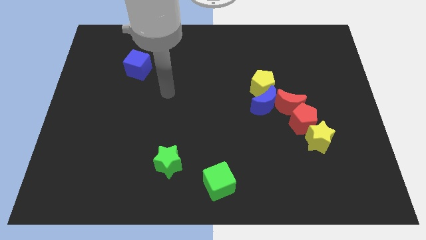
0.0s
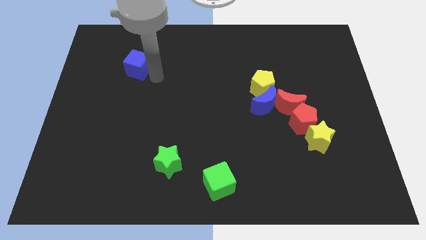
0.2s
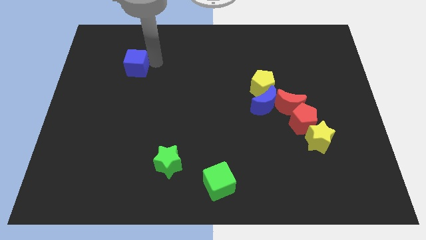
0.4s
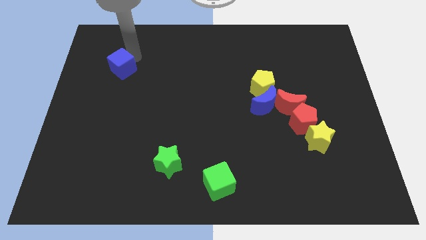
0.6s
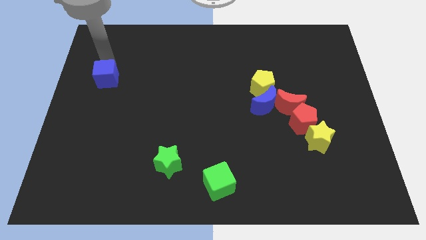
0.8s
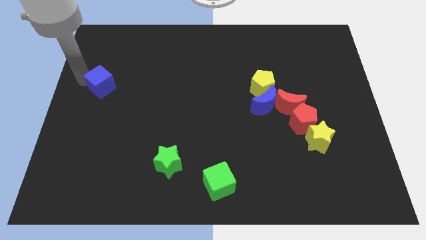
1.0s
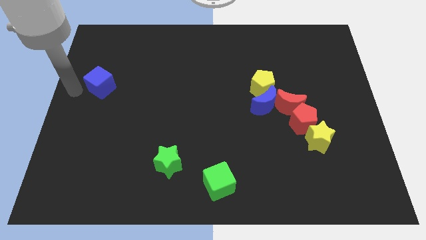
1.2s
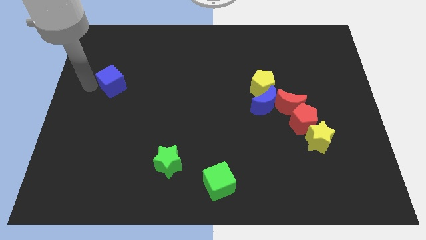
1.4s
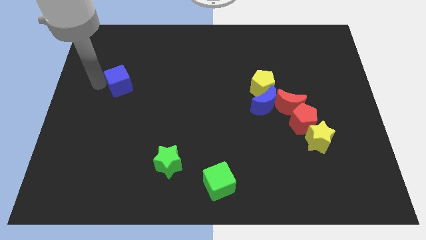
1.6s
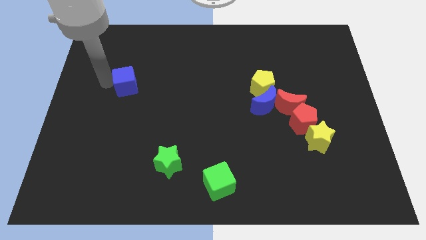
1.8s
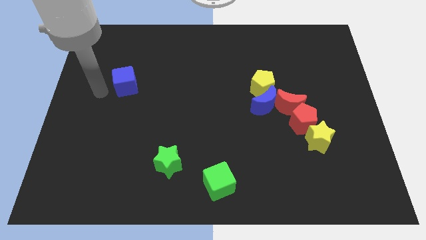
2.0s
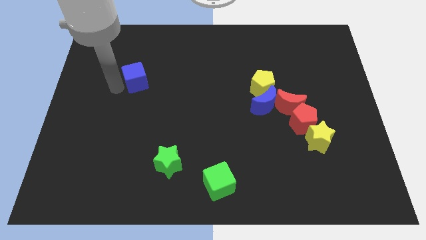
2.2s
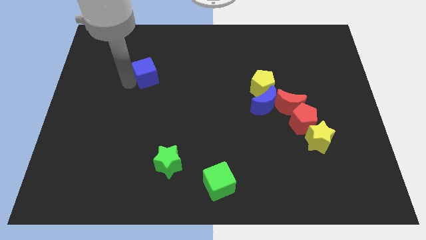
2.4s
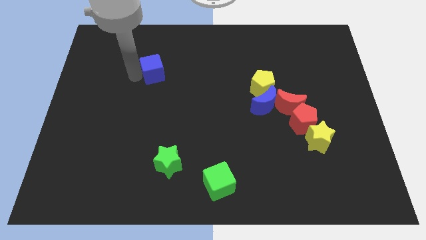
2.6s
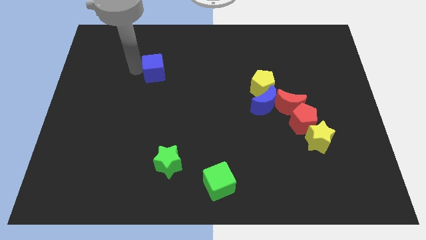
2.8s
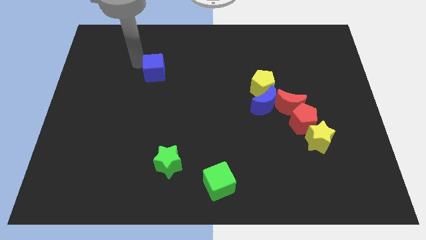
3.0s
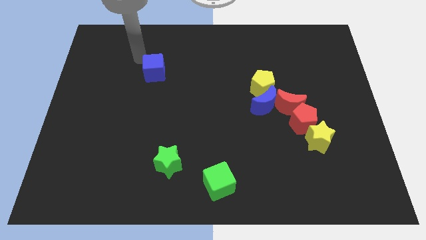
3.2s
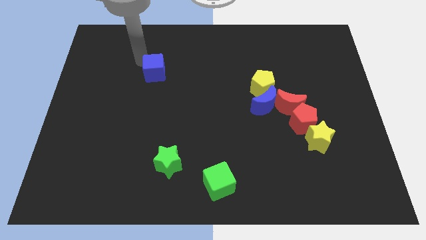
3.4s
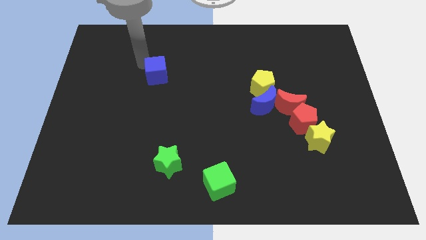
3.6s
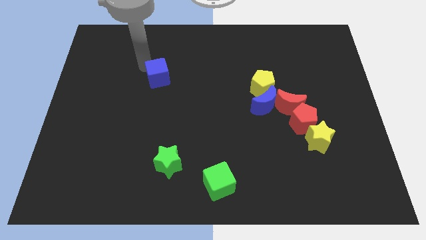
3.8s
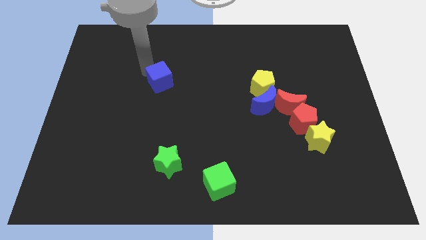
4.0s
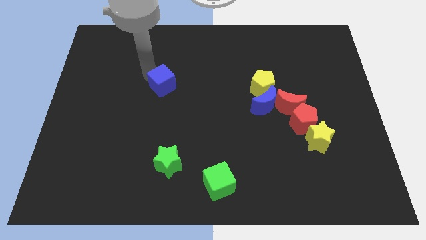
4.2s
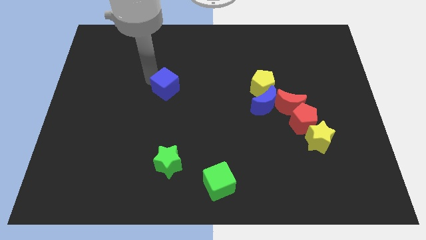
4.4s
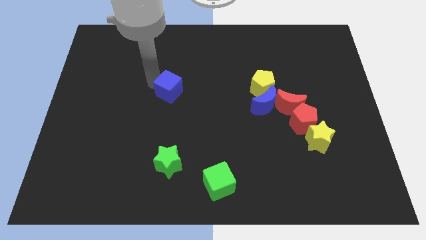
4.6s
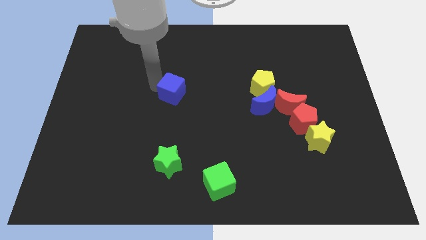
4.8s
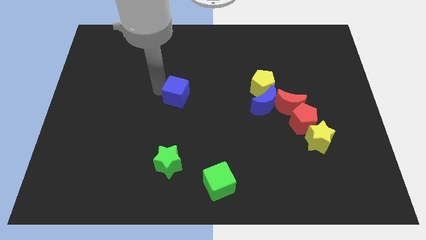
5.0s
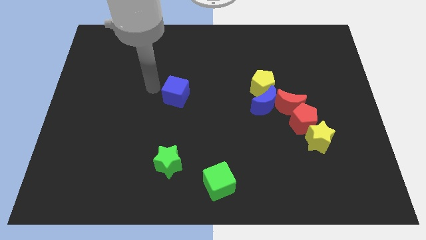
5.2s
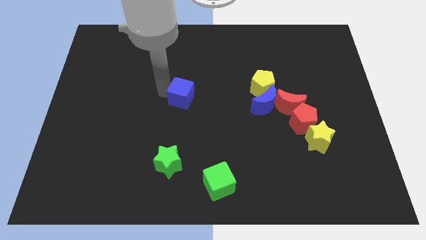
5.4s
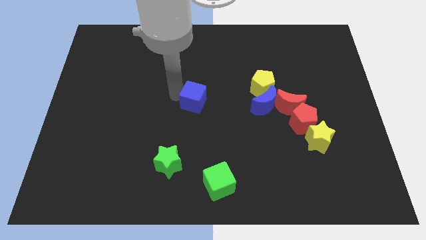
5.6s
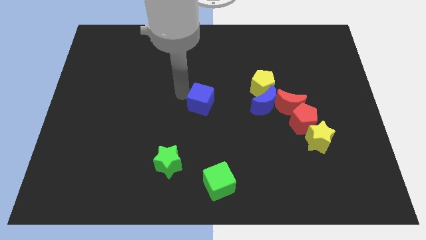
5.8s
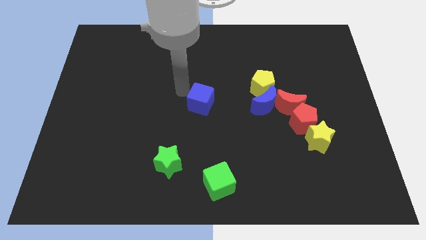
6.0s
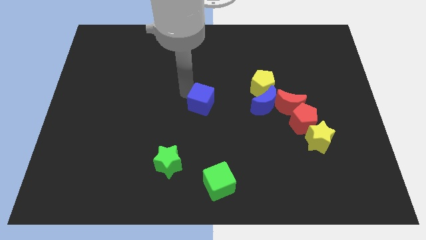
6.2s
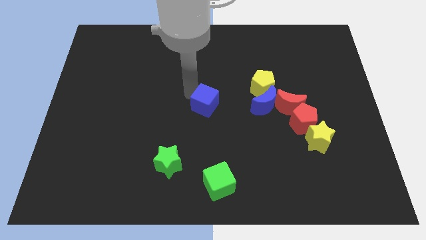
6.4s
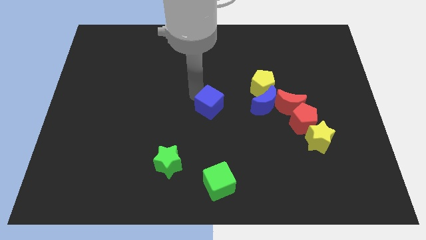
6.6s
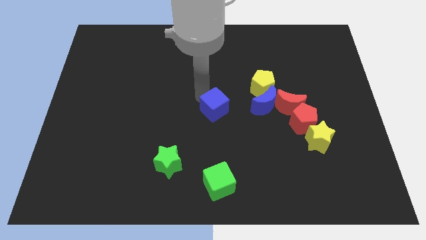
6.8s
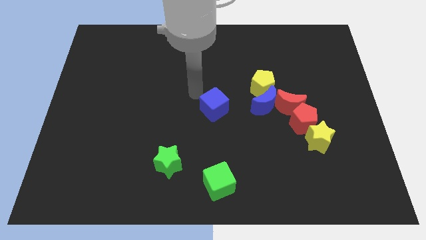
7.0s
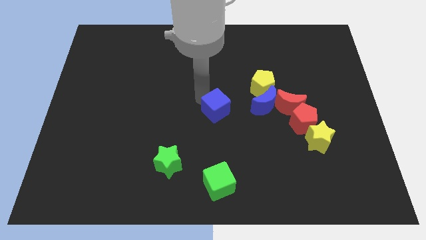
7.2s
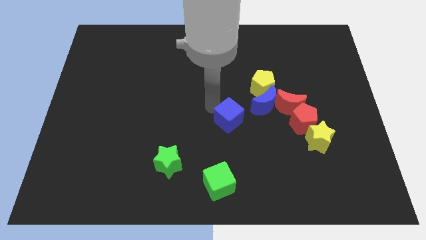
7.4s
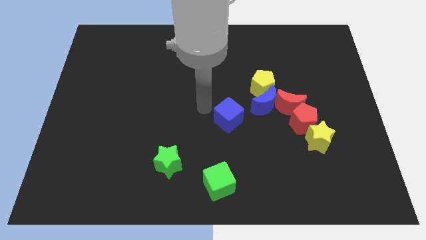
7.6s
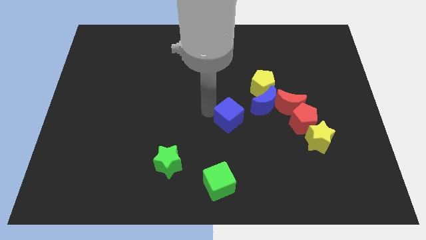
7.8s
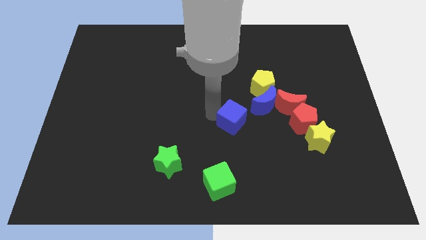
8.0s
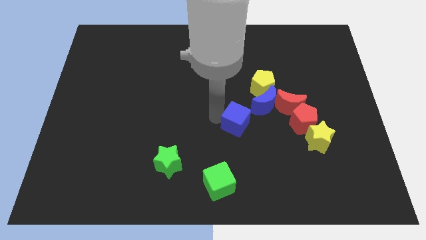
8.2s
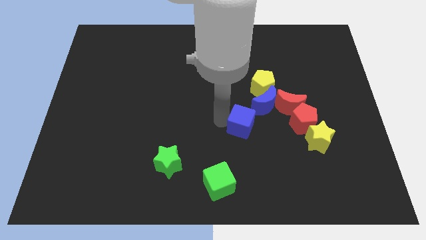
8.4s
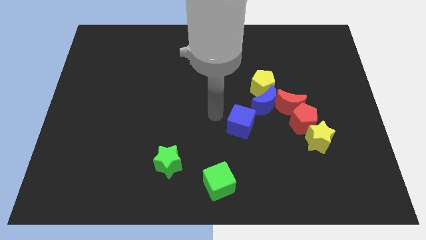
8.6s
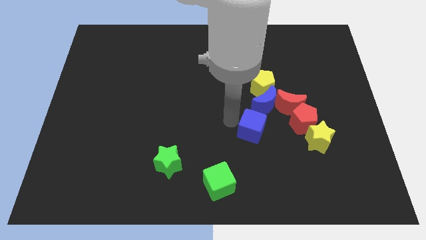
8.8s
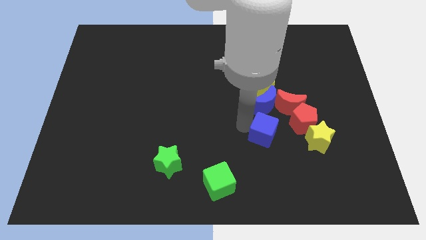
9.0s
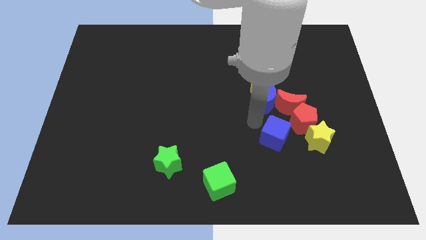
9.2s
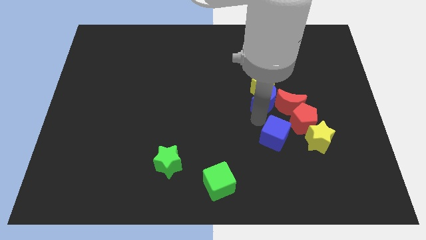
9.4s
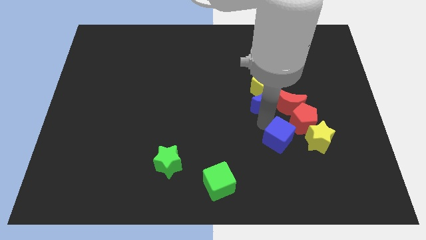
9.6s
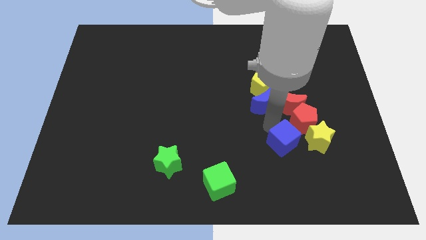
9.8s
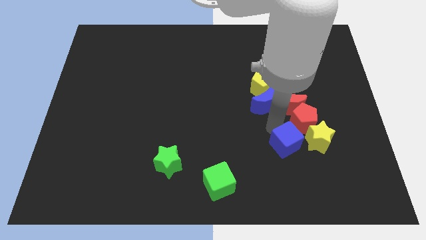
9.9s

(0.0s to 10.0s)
slide the blue cube diagonally down and to the left of the yellow star

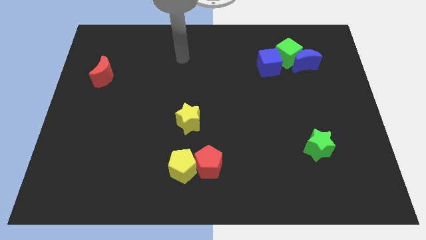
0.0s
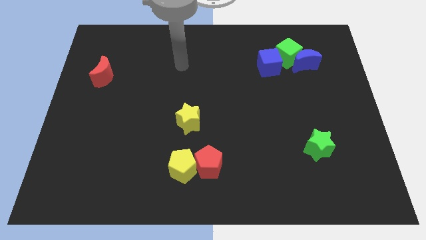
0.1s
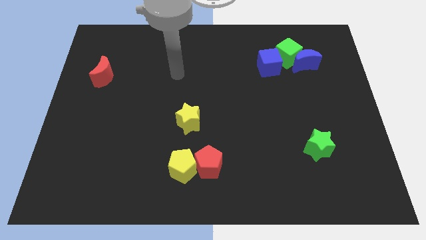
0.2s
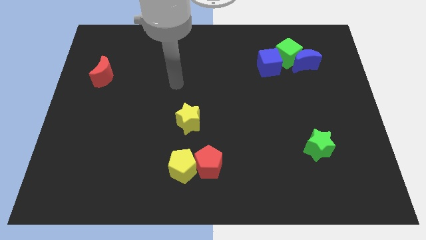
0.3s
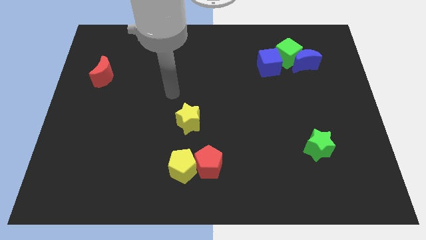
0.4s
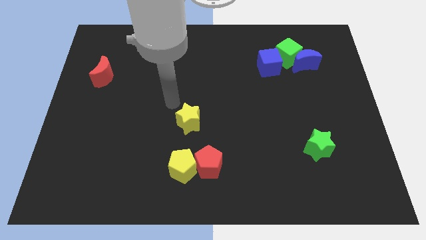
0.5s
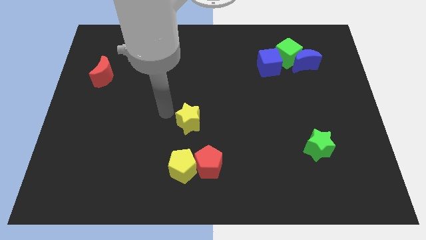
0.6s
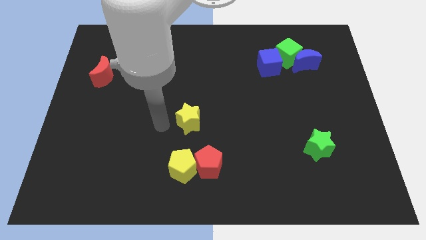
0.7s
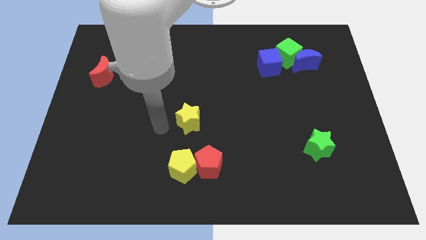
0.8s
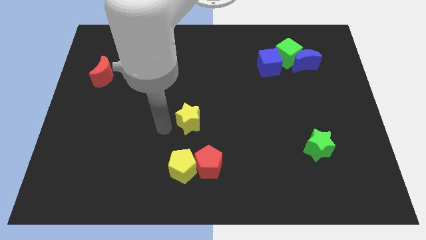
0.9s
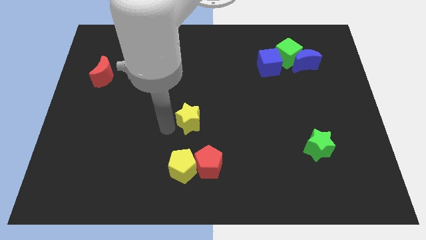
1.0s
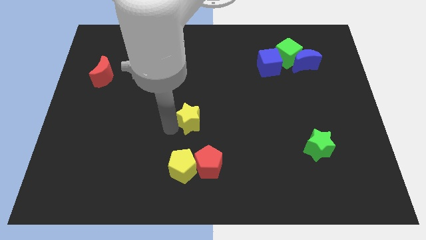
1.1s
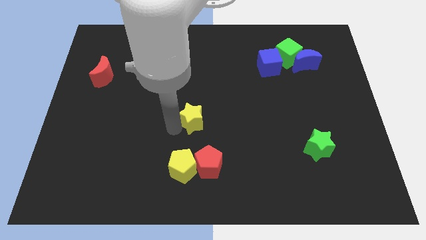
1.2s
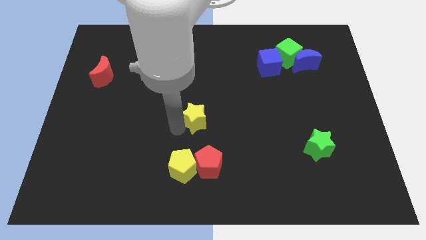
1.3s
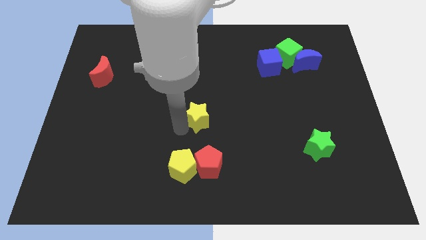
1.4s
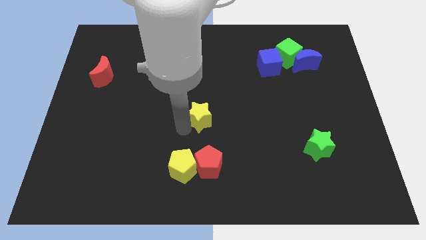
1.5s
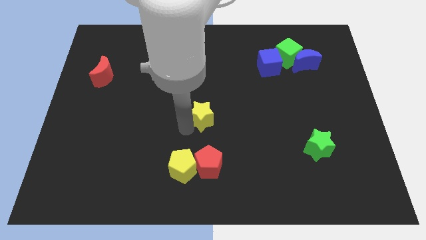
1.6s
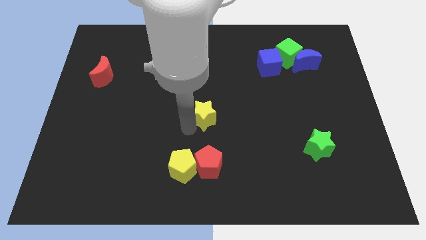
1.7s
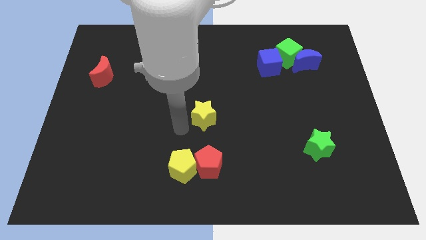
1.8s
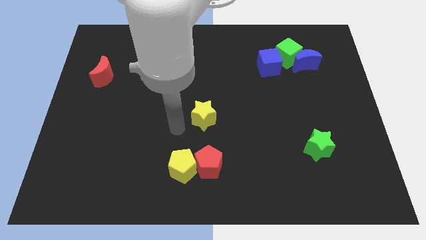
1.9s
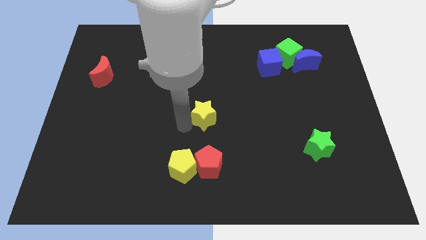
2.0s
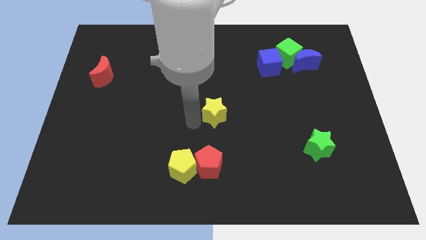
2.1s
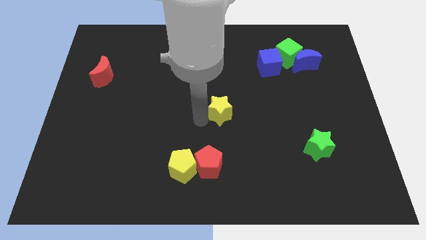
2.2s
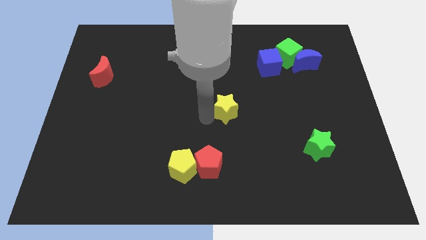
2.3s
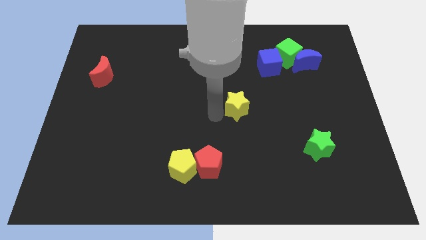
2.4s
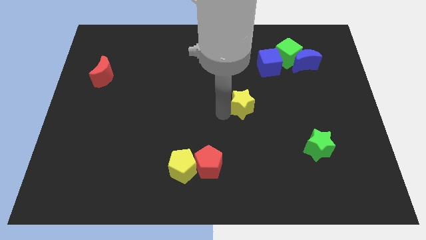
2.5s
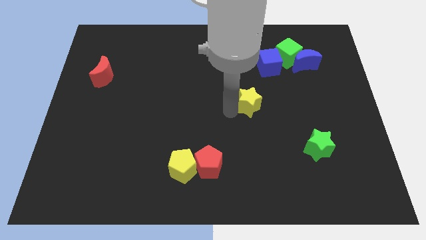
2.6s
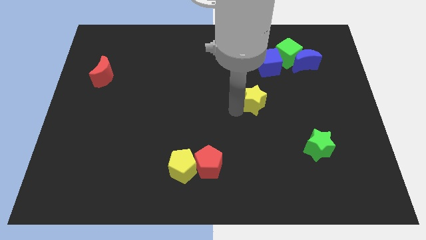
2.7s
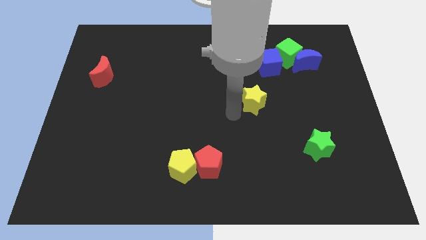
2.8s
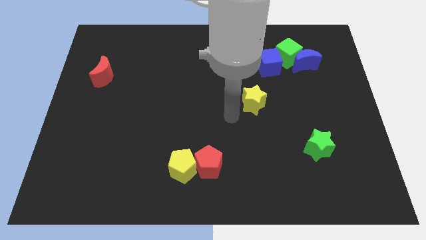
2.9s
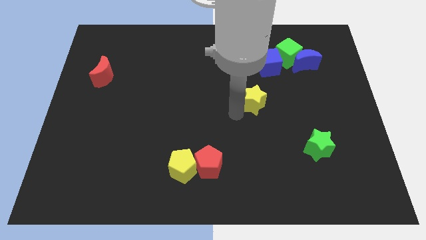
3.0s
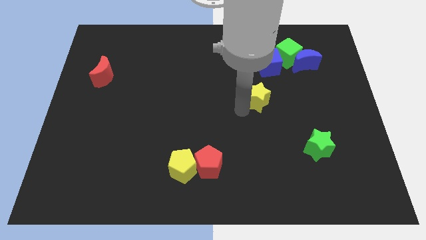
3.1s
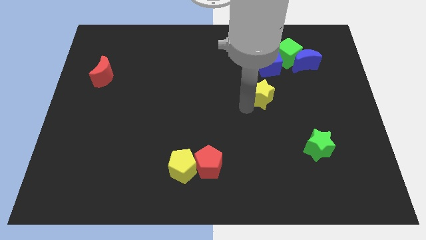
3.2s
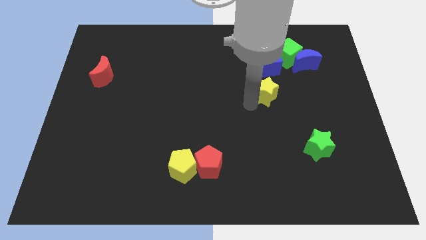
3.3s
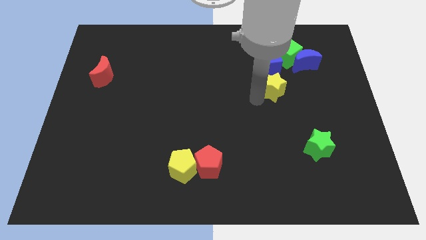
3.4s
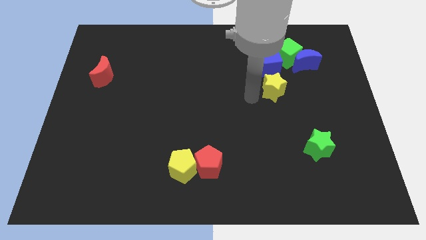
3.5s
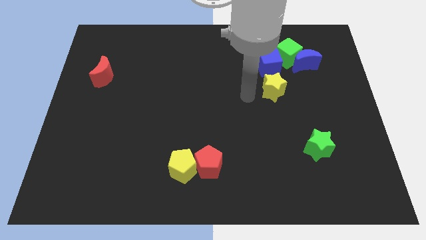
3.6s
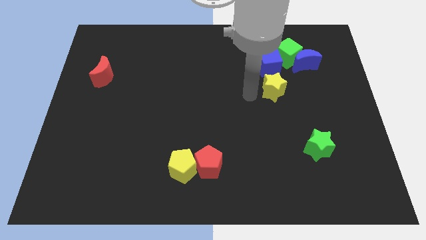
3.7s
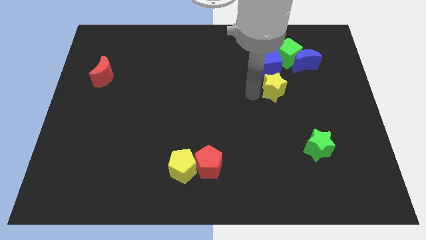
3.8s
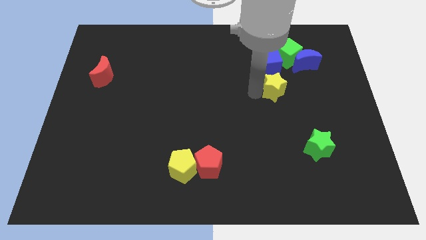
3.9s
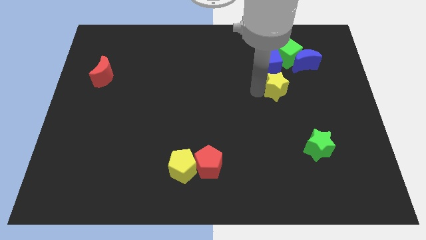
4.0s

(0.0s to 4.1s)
put the yellow star below the green cube
